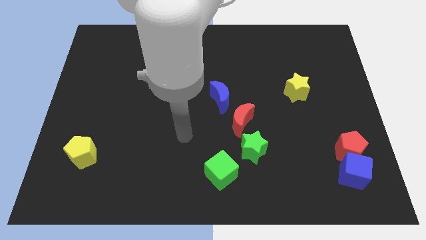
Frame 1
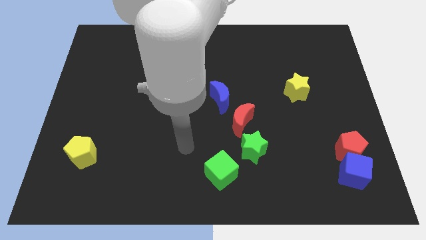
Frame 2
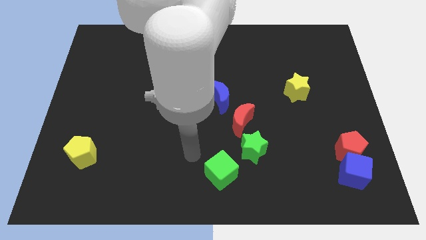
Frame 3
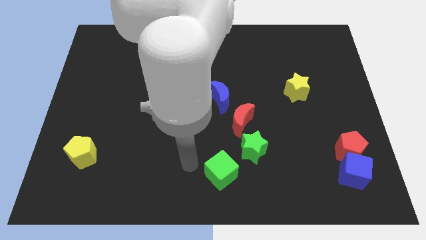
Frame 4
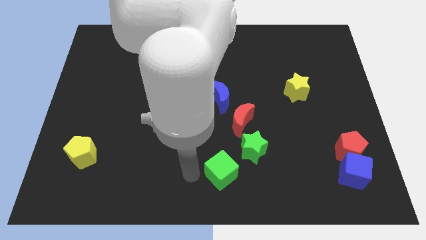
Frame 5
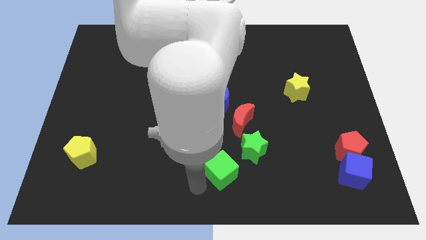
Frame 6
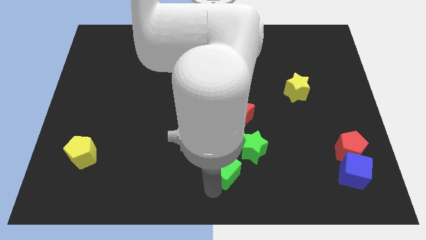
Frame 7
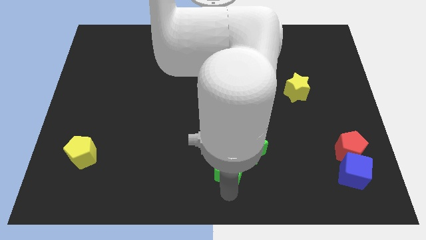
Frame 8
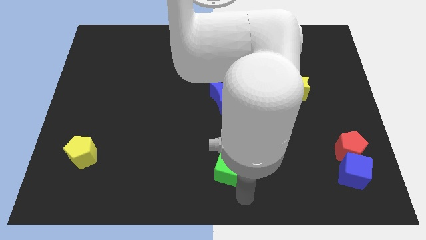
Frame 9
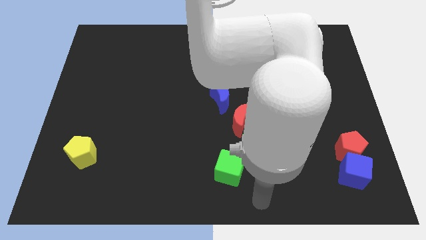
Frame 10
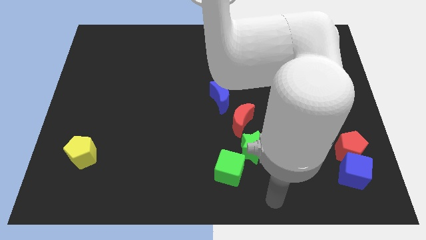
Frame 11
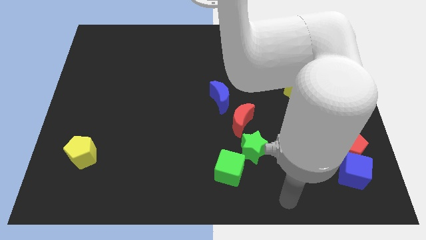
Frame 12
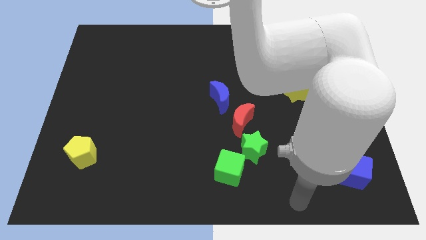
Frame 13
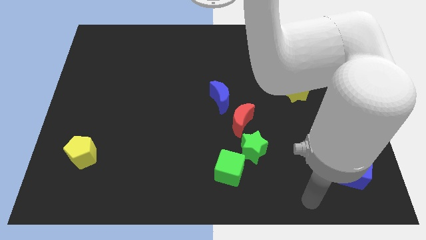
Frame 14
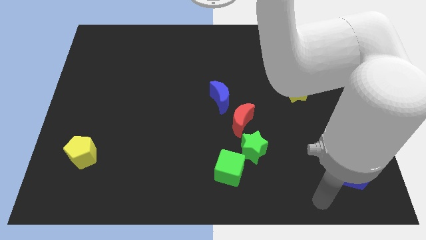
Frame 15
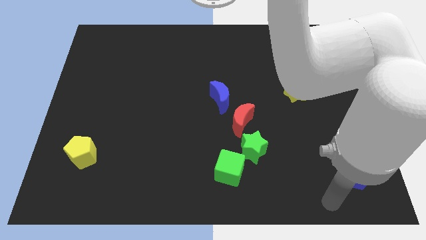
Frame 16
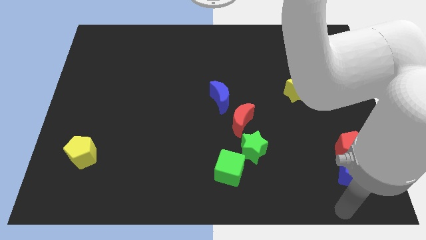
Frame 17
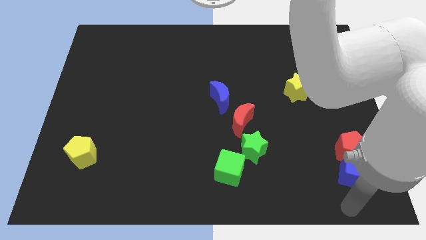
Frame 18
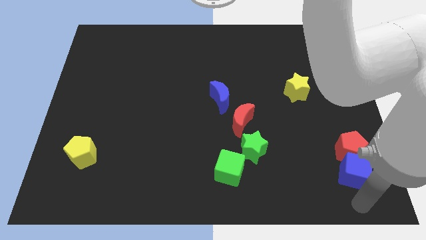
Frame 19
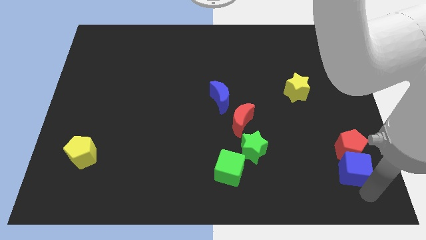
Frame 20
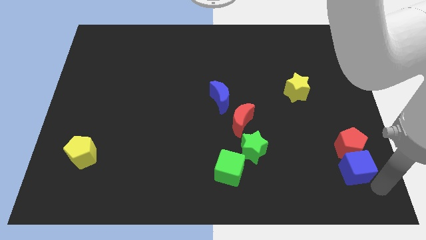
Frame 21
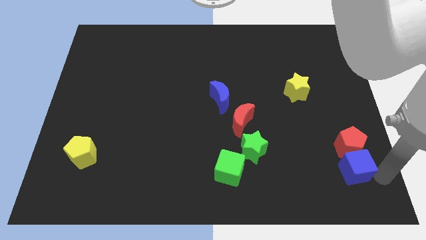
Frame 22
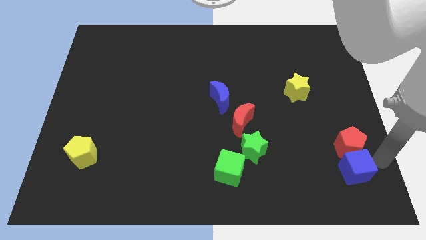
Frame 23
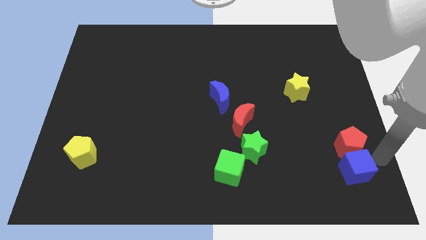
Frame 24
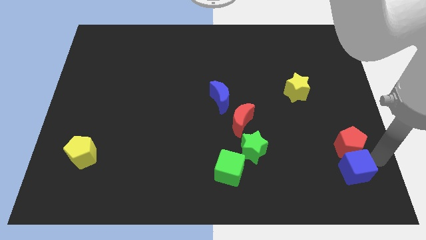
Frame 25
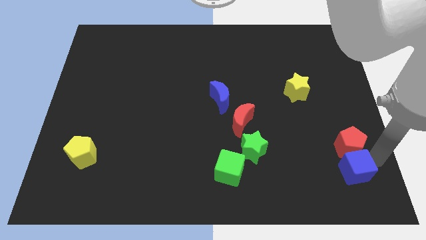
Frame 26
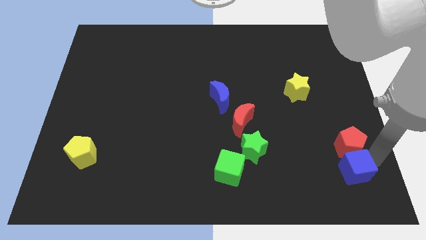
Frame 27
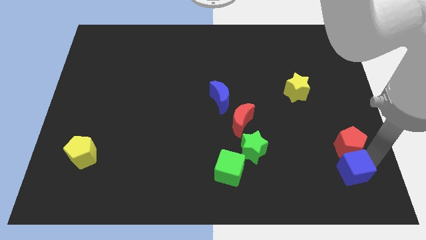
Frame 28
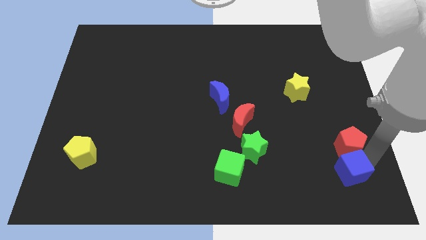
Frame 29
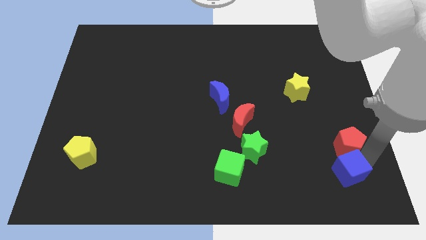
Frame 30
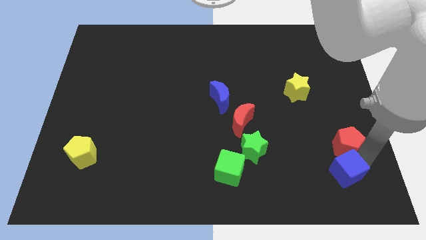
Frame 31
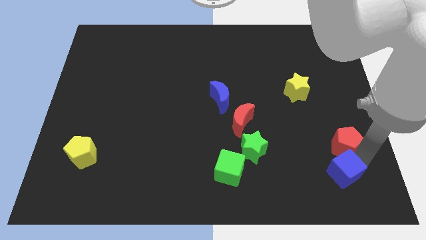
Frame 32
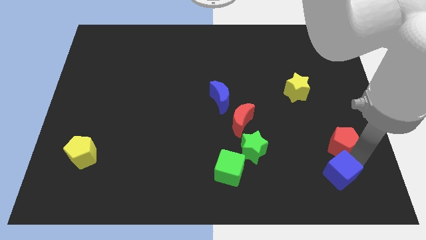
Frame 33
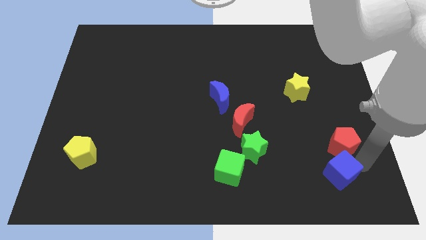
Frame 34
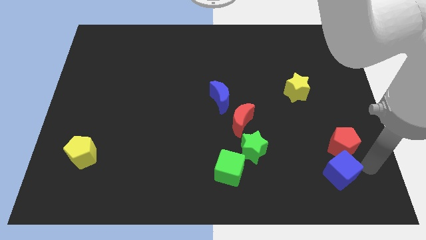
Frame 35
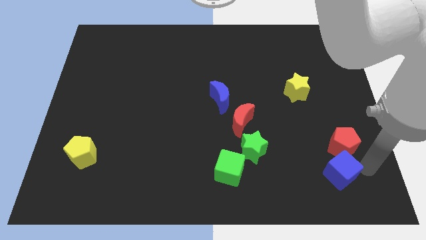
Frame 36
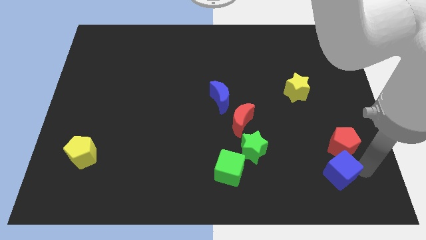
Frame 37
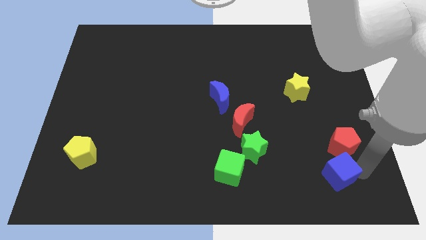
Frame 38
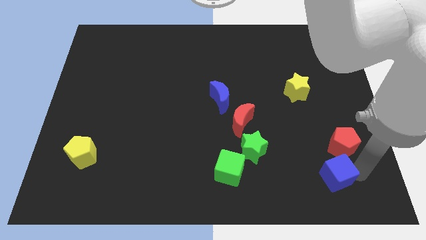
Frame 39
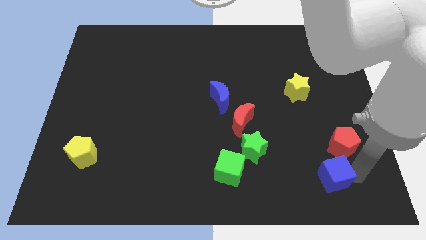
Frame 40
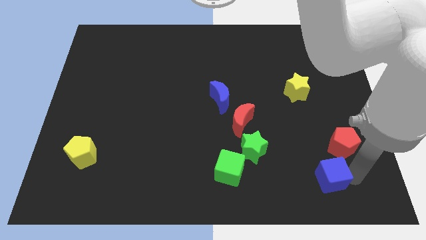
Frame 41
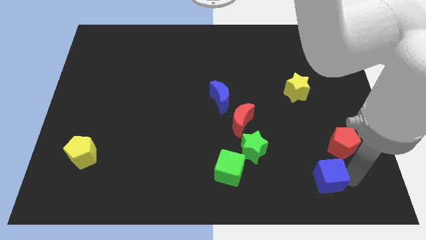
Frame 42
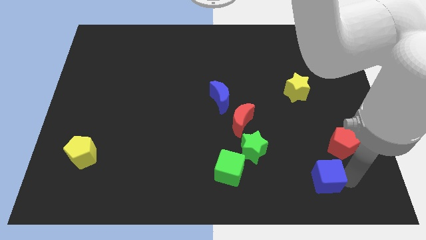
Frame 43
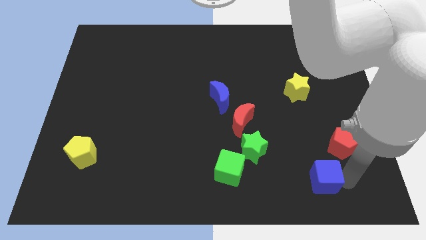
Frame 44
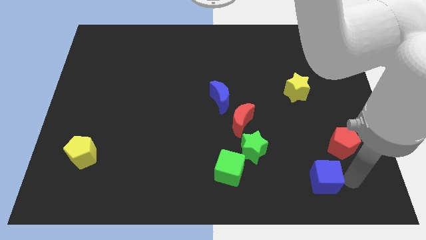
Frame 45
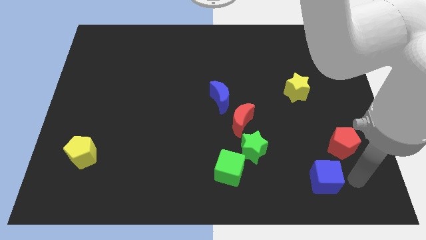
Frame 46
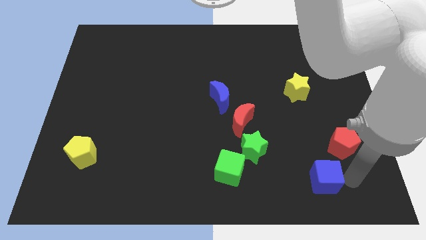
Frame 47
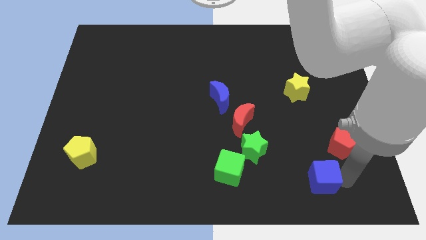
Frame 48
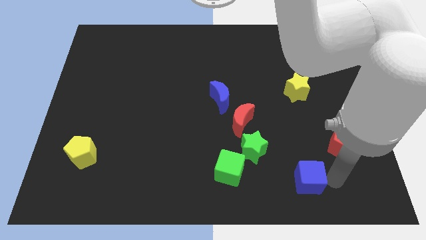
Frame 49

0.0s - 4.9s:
slightly slide the blue cube left

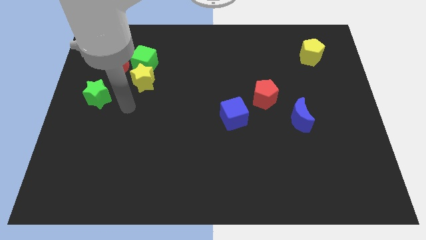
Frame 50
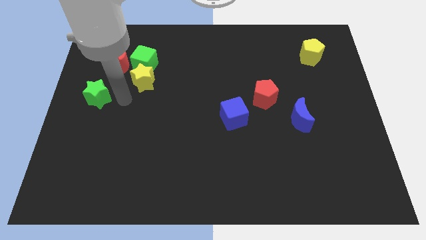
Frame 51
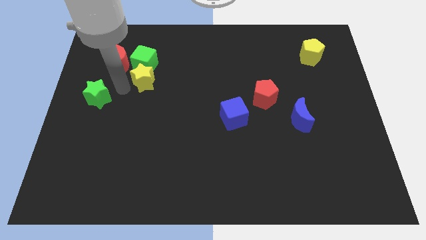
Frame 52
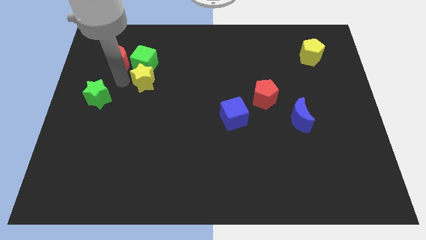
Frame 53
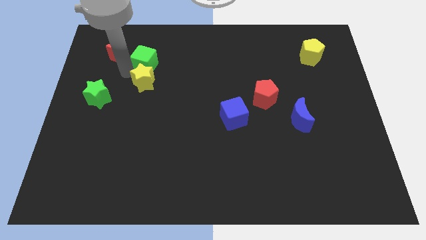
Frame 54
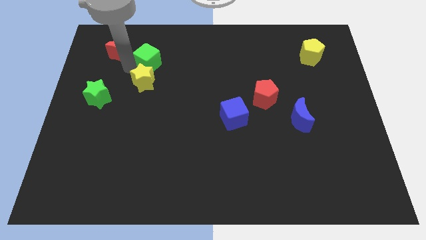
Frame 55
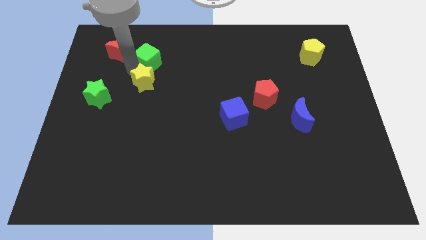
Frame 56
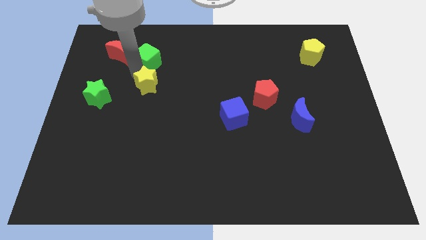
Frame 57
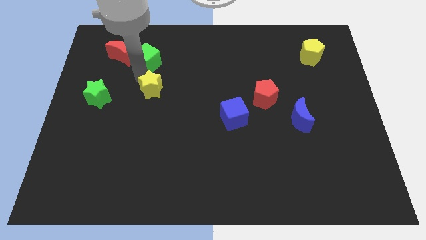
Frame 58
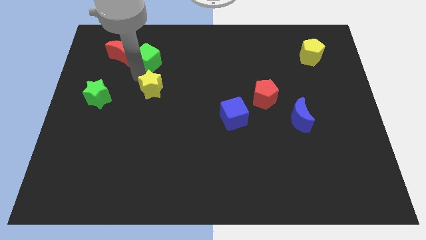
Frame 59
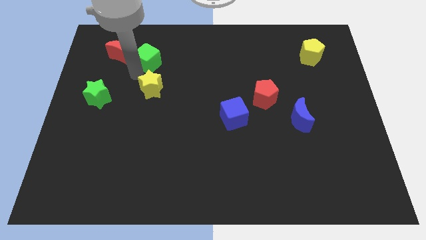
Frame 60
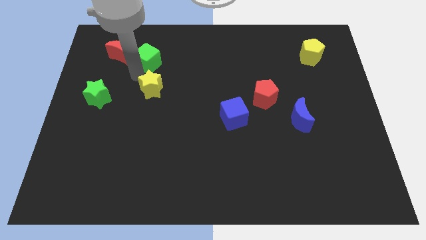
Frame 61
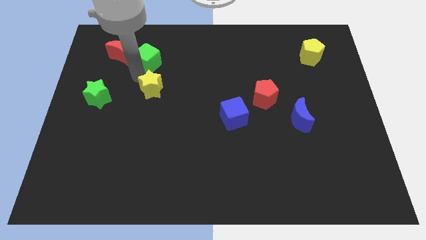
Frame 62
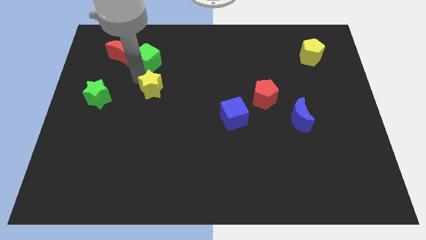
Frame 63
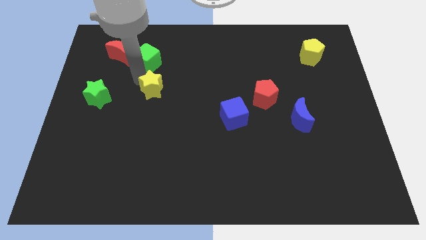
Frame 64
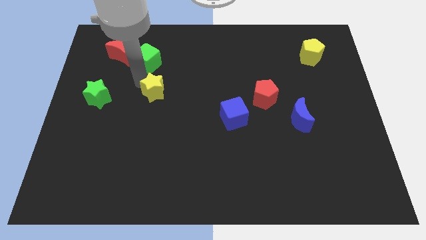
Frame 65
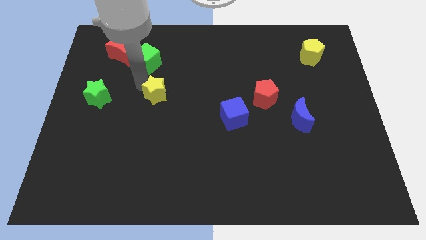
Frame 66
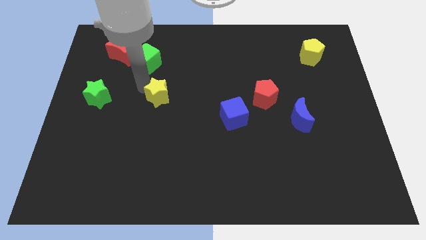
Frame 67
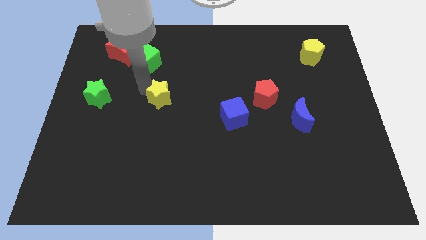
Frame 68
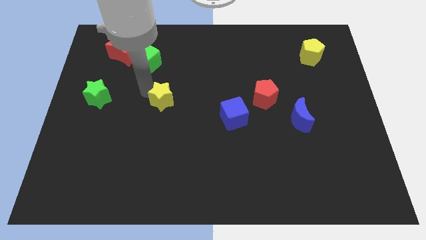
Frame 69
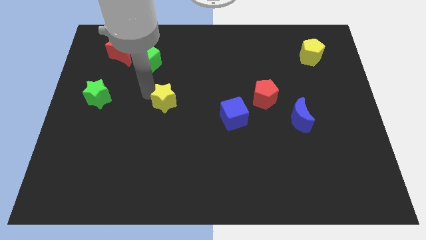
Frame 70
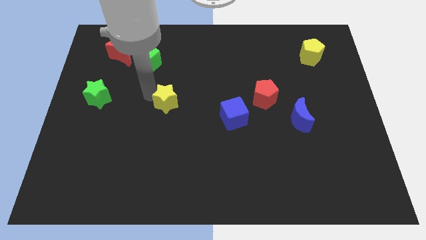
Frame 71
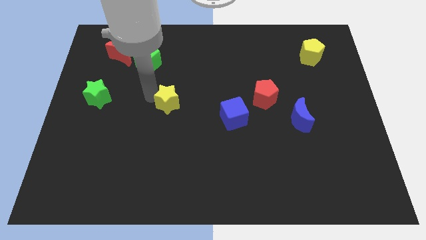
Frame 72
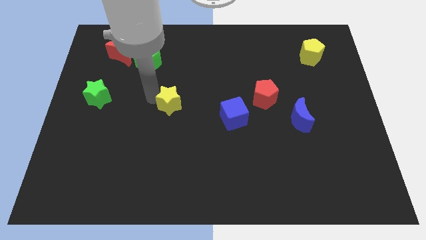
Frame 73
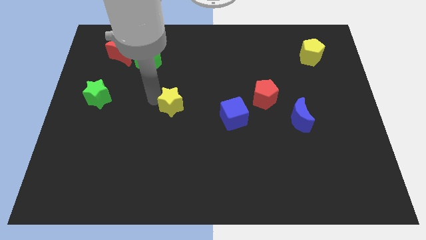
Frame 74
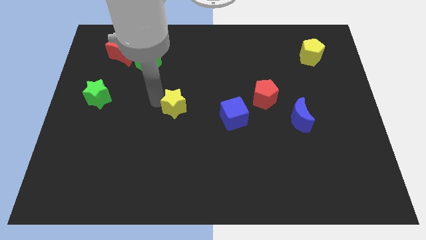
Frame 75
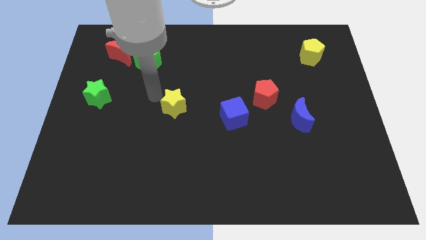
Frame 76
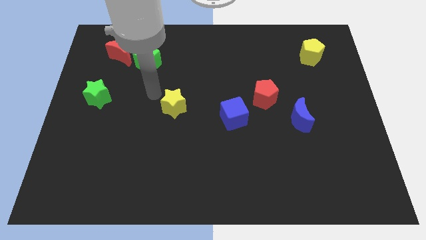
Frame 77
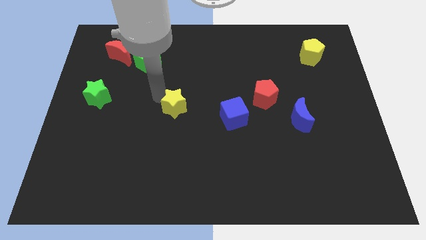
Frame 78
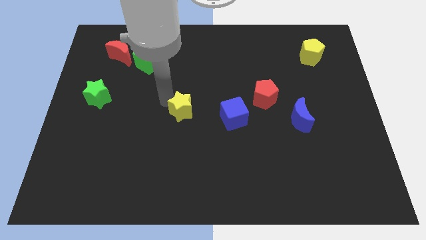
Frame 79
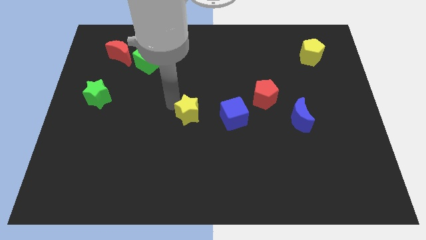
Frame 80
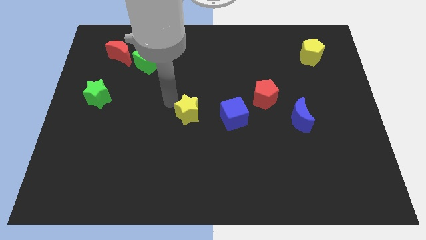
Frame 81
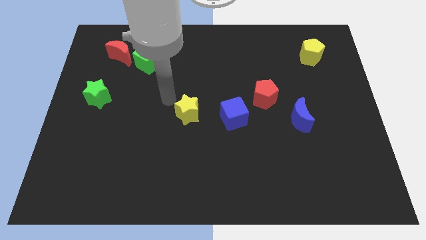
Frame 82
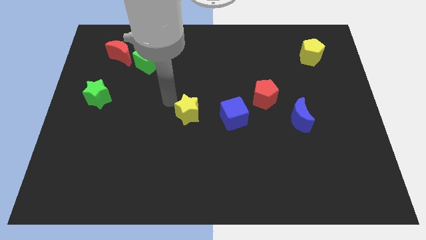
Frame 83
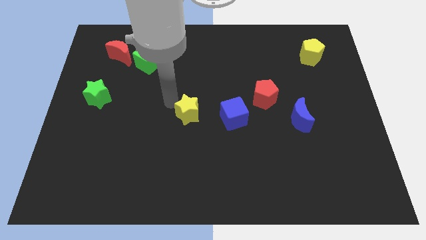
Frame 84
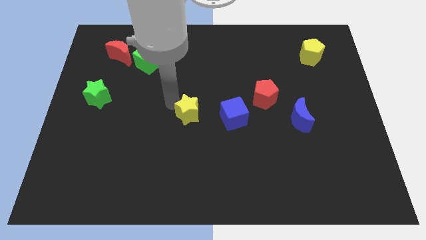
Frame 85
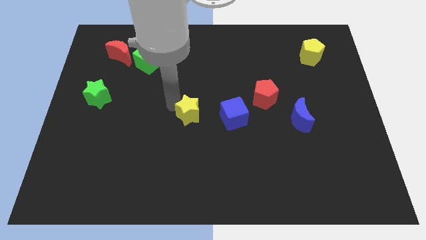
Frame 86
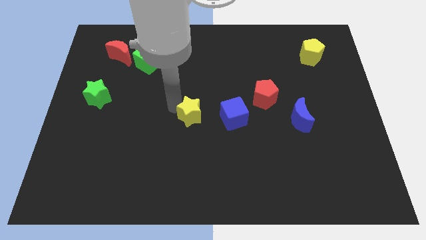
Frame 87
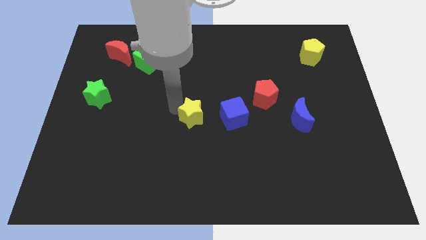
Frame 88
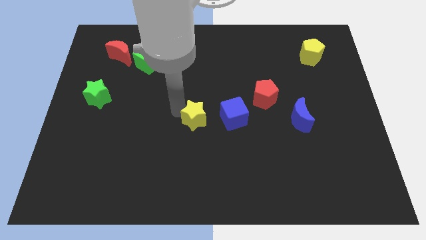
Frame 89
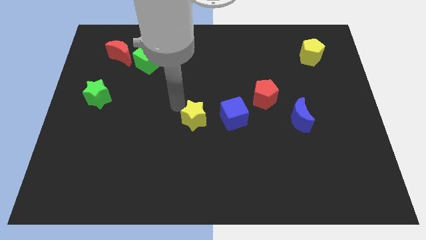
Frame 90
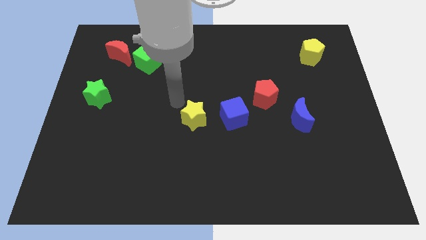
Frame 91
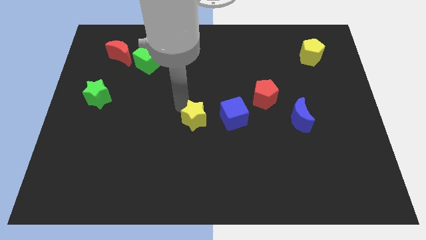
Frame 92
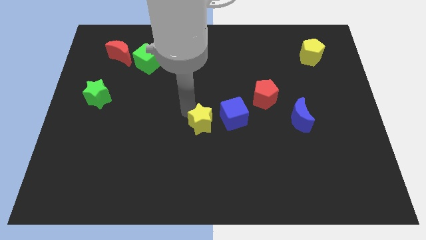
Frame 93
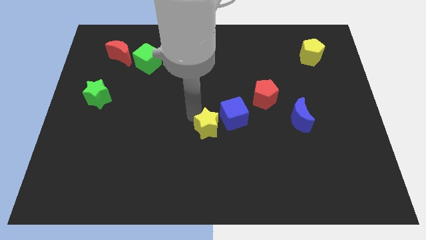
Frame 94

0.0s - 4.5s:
push the yellow star downwards and then right
